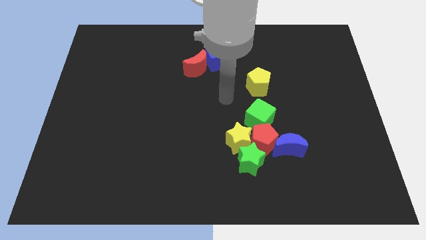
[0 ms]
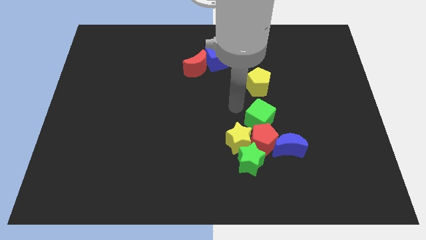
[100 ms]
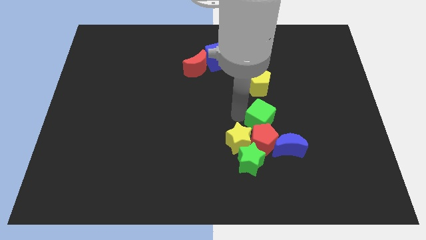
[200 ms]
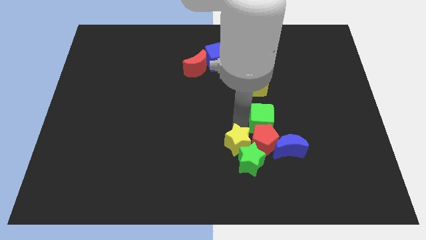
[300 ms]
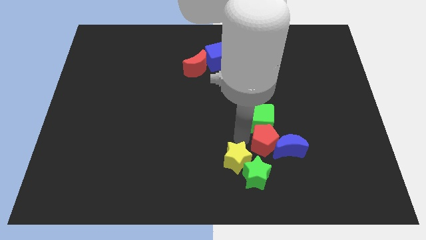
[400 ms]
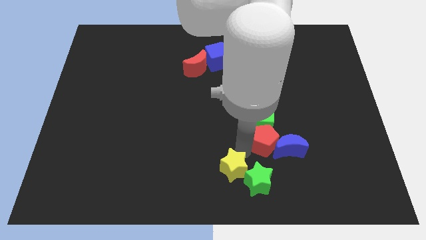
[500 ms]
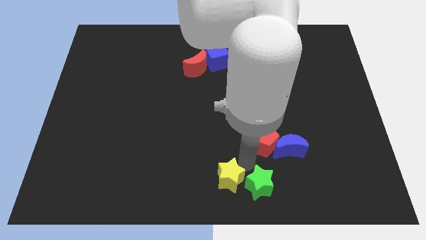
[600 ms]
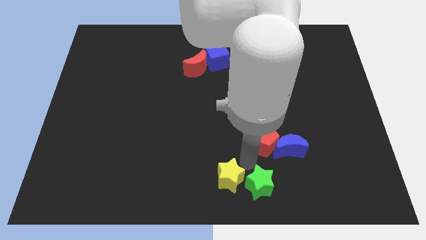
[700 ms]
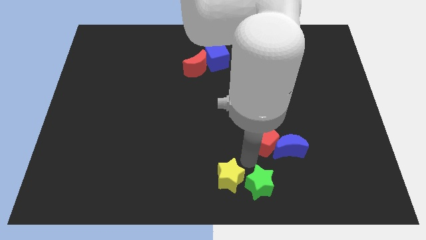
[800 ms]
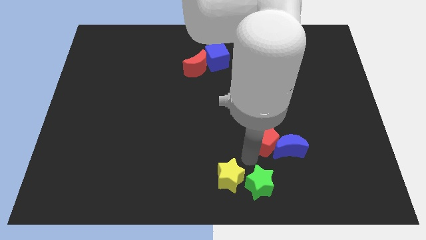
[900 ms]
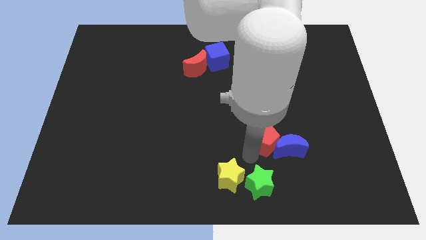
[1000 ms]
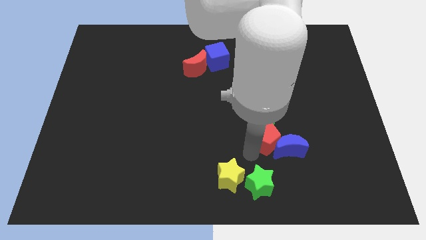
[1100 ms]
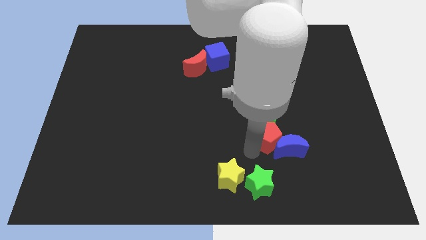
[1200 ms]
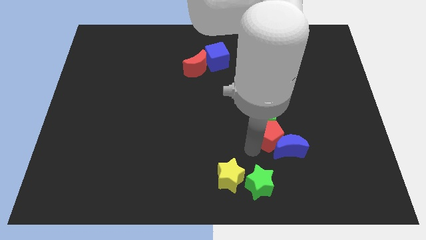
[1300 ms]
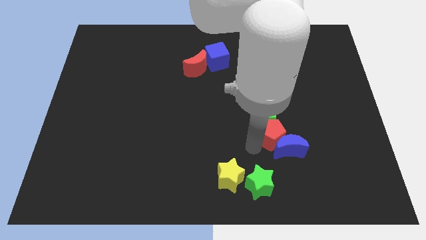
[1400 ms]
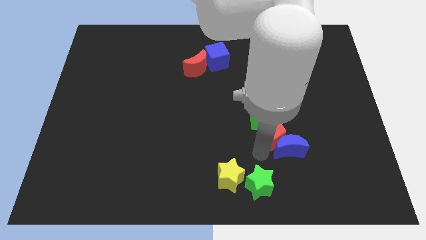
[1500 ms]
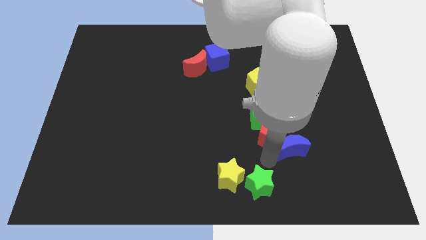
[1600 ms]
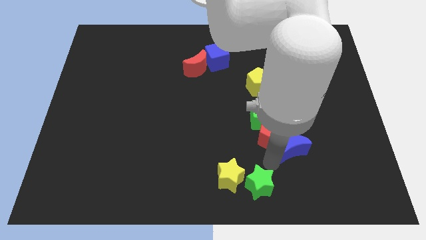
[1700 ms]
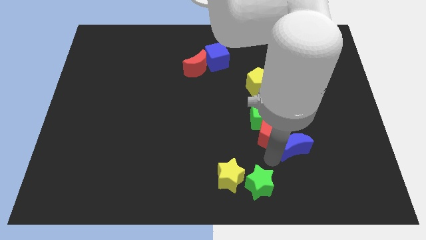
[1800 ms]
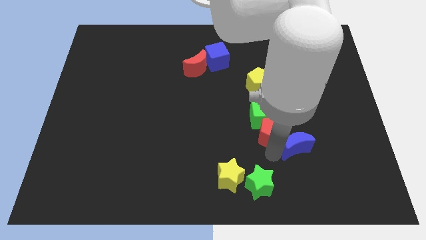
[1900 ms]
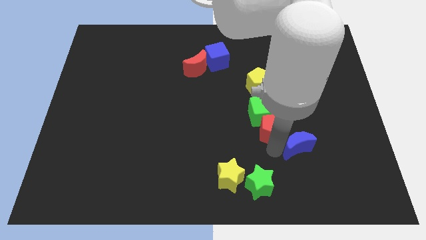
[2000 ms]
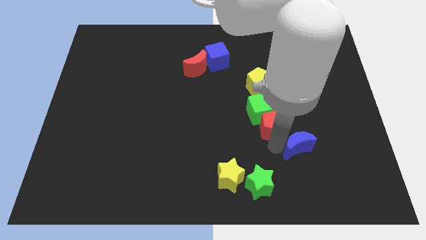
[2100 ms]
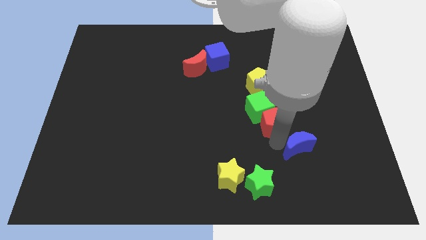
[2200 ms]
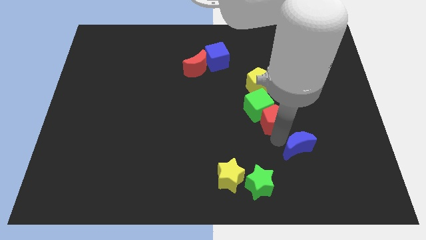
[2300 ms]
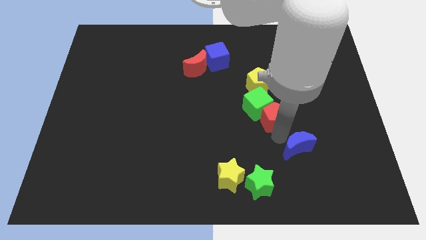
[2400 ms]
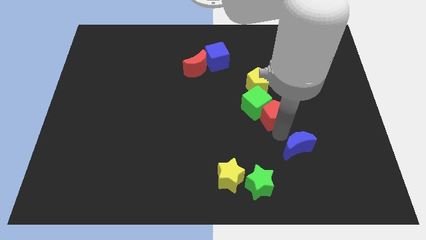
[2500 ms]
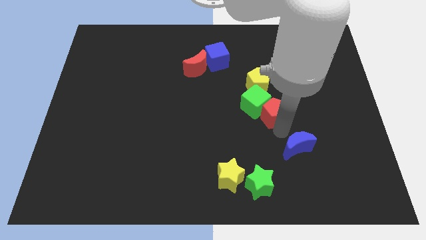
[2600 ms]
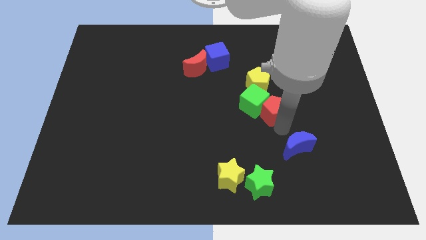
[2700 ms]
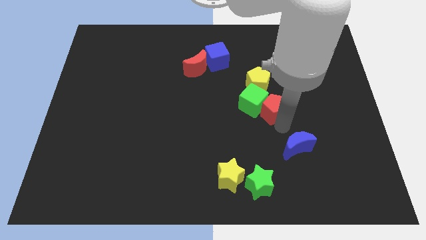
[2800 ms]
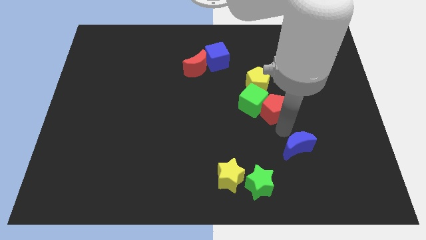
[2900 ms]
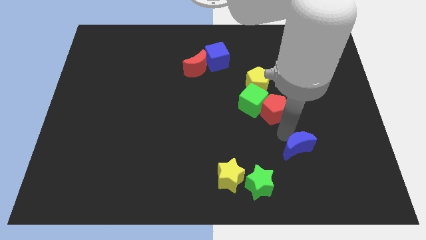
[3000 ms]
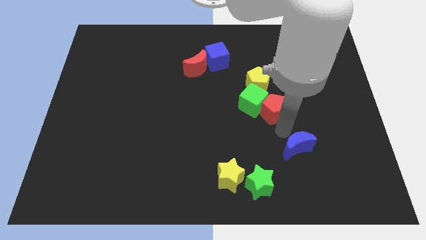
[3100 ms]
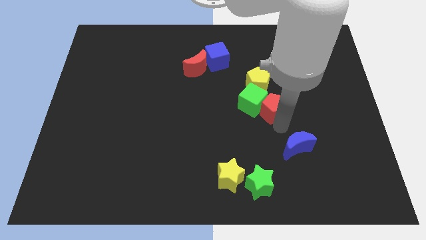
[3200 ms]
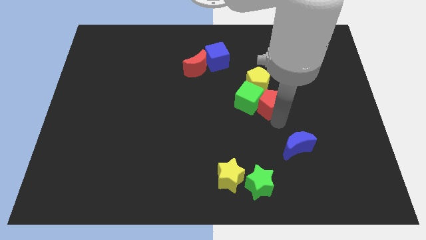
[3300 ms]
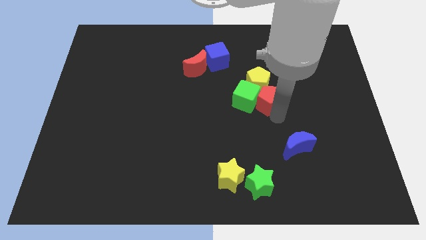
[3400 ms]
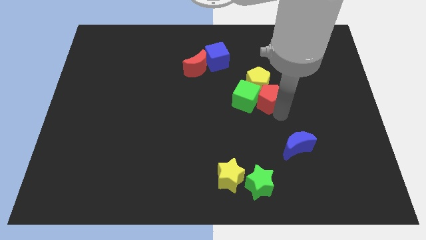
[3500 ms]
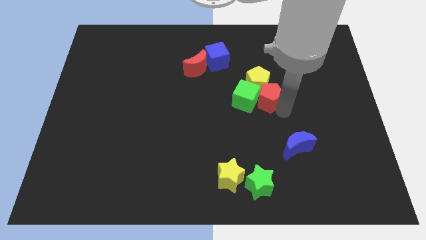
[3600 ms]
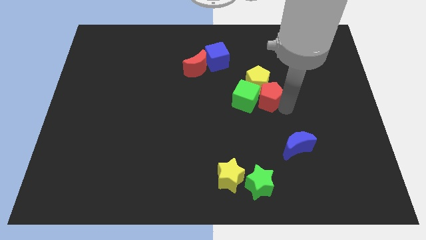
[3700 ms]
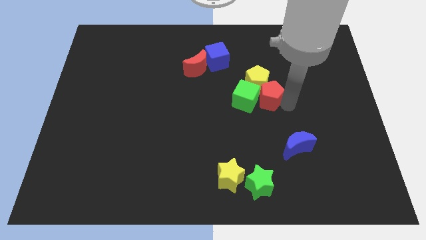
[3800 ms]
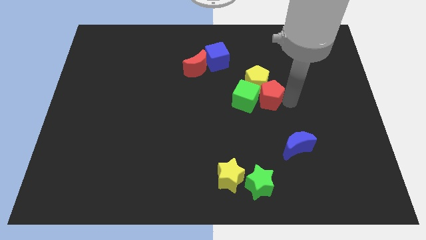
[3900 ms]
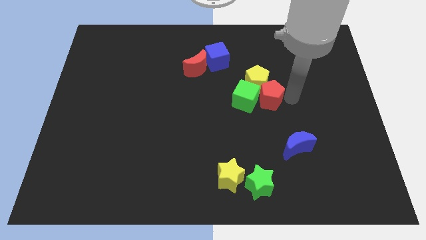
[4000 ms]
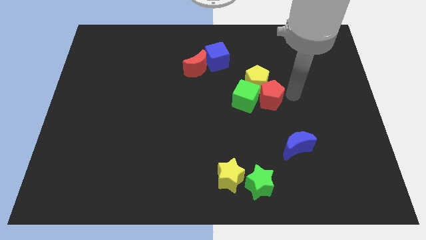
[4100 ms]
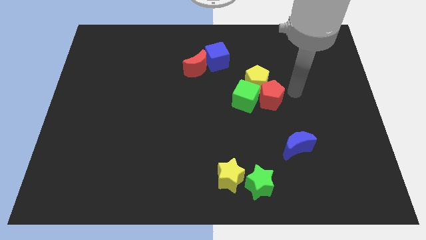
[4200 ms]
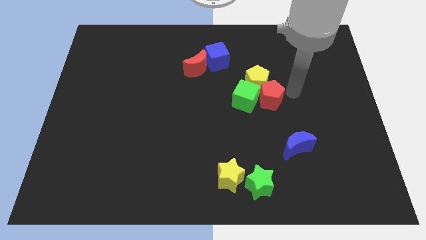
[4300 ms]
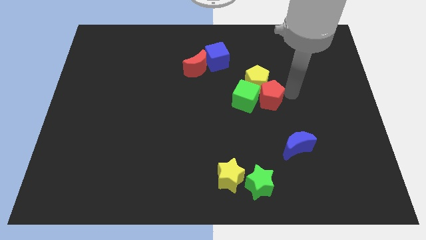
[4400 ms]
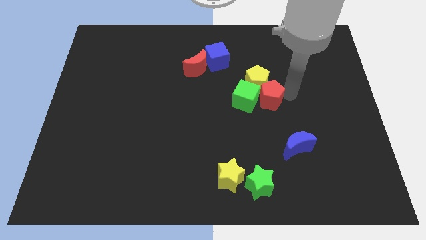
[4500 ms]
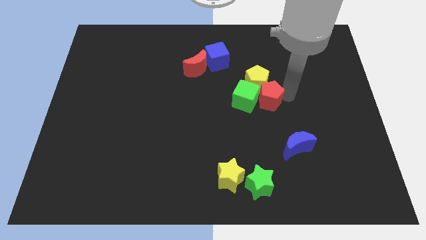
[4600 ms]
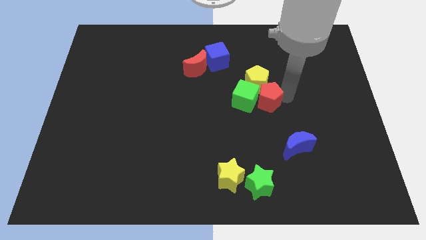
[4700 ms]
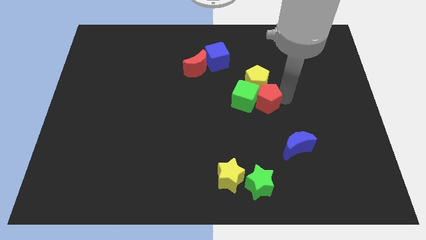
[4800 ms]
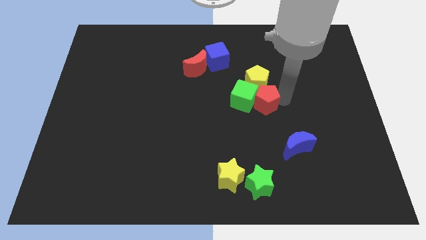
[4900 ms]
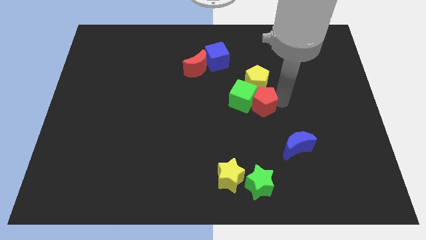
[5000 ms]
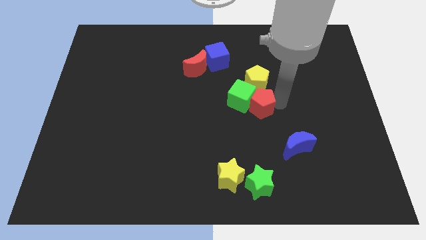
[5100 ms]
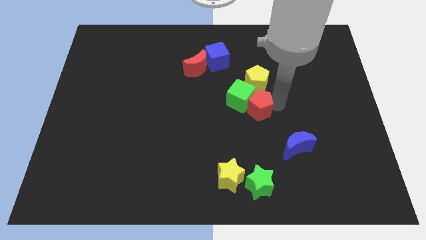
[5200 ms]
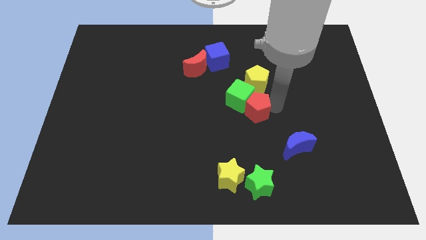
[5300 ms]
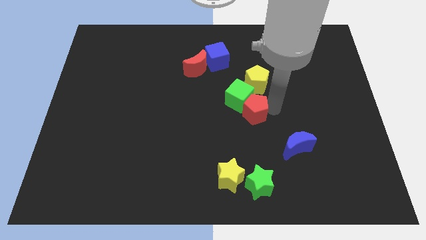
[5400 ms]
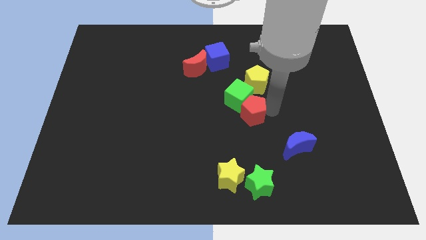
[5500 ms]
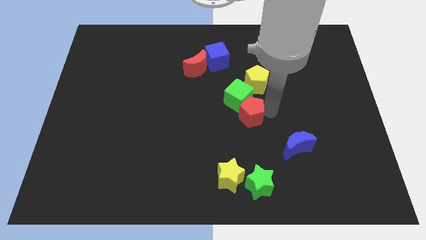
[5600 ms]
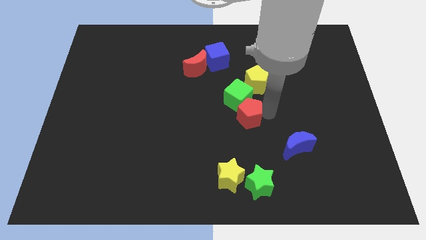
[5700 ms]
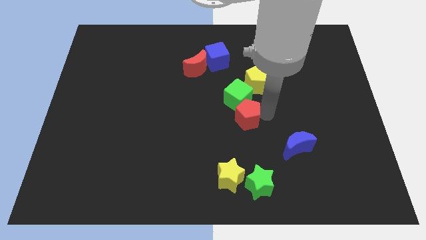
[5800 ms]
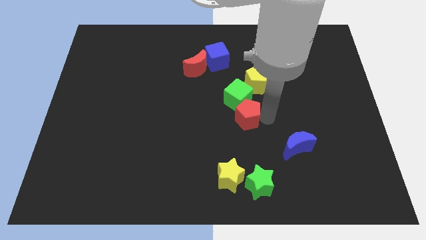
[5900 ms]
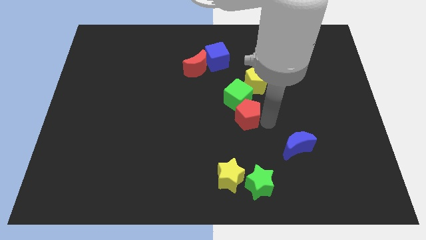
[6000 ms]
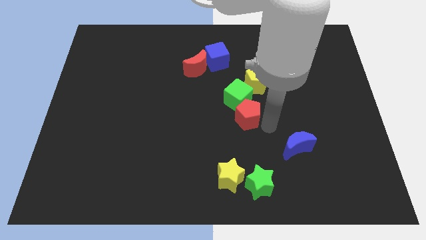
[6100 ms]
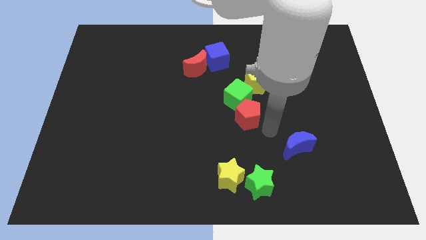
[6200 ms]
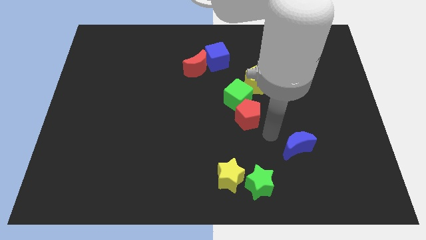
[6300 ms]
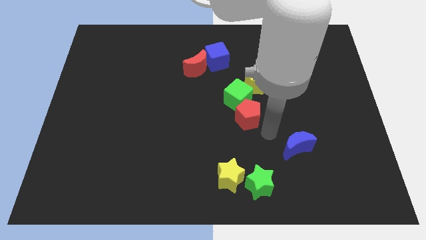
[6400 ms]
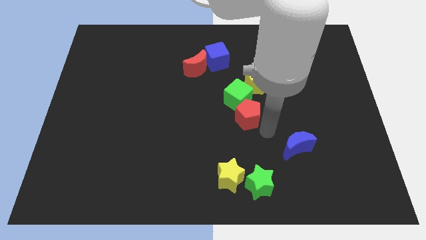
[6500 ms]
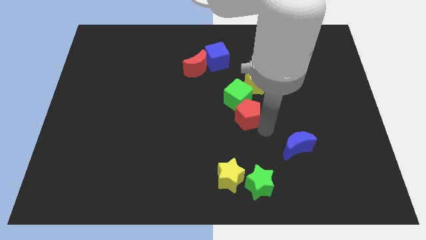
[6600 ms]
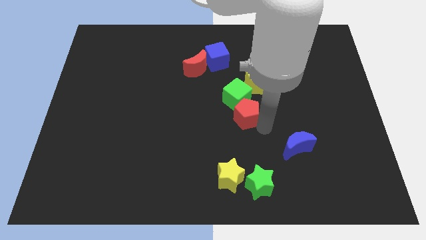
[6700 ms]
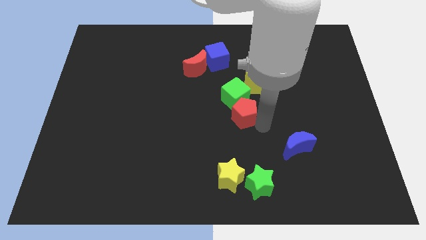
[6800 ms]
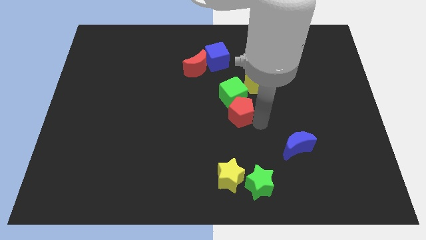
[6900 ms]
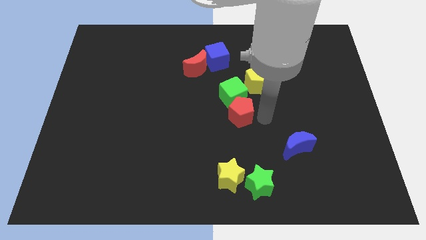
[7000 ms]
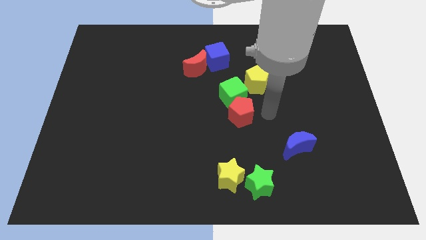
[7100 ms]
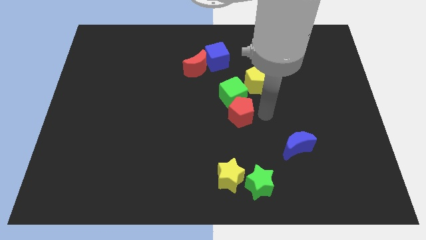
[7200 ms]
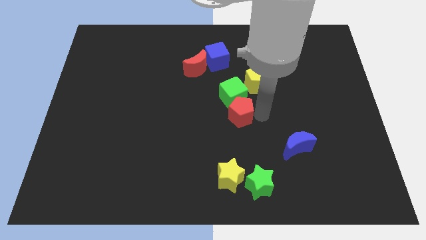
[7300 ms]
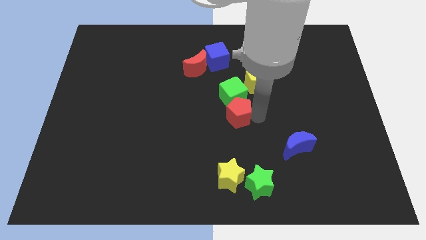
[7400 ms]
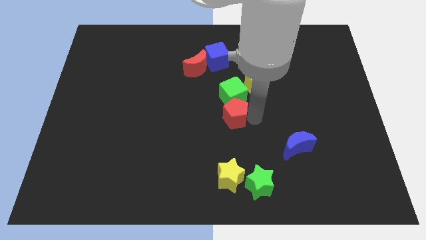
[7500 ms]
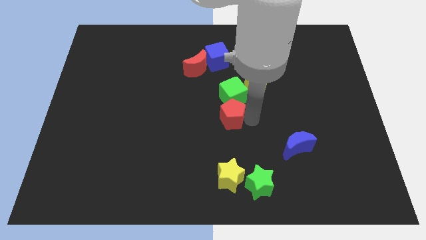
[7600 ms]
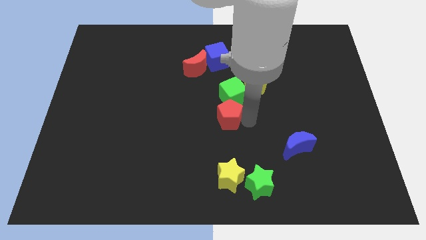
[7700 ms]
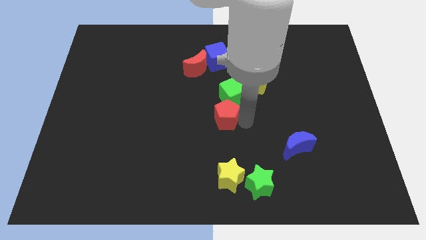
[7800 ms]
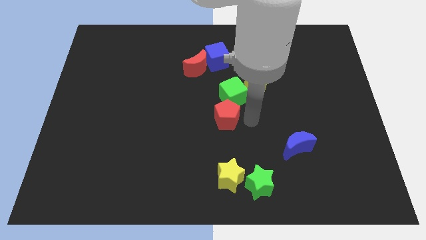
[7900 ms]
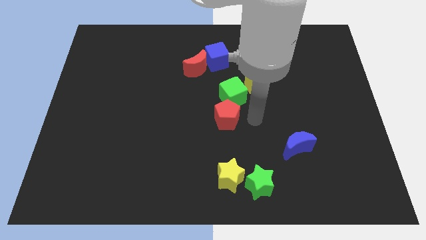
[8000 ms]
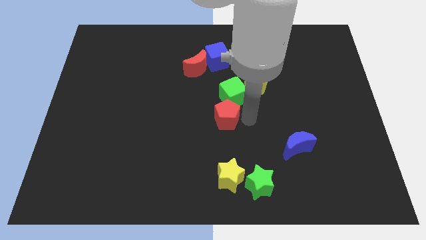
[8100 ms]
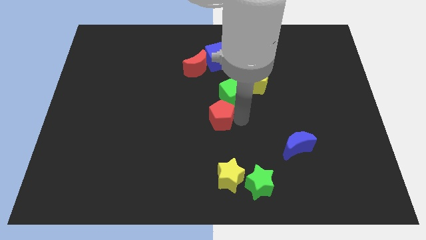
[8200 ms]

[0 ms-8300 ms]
slide the red pentagon slightly to the left
